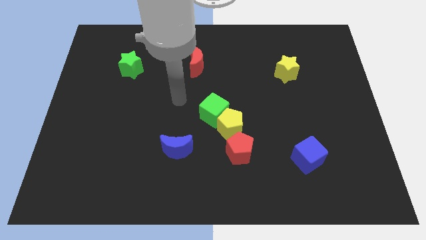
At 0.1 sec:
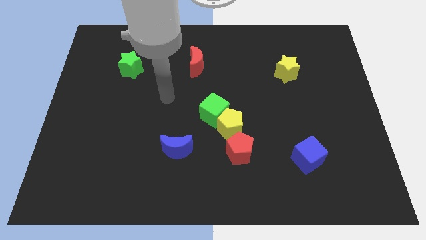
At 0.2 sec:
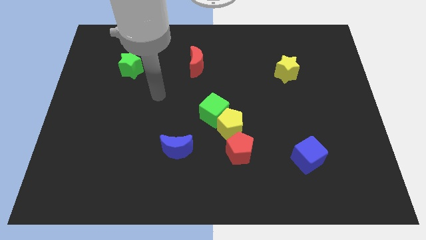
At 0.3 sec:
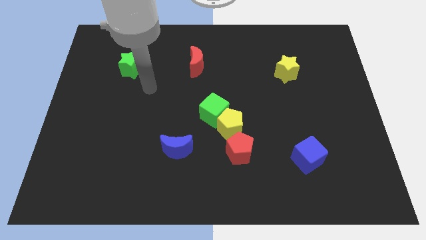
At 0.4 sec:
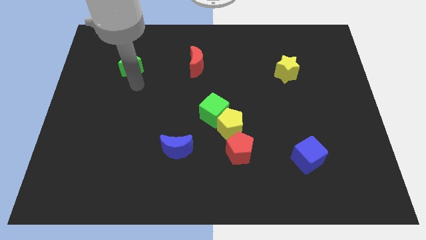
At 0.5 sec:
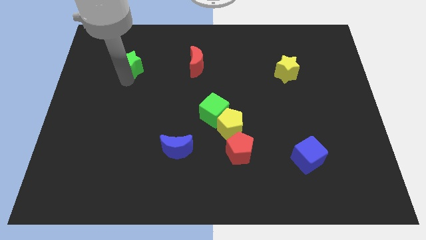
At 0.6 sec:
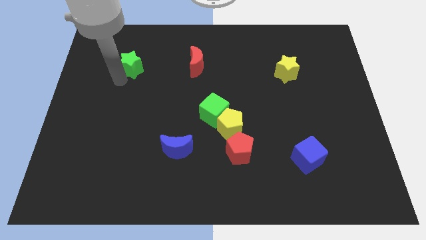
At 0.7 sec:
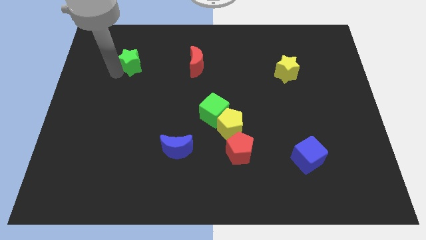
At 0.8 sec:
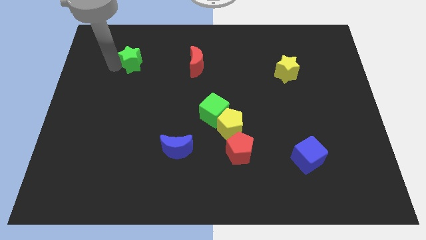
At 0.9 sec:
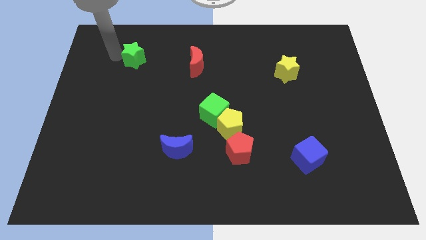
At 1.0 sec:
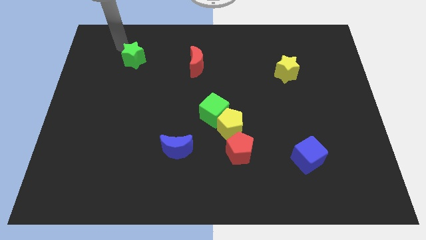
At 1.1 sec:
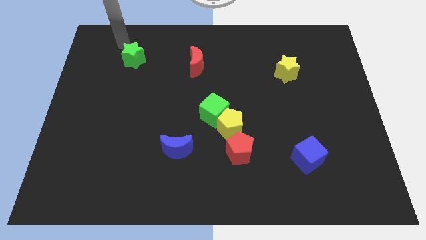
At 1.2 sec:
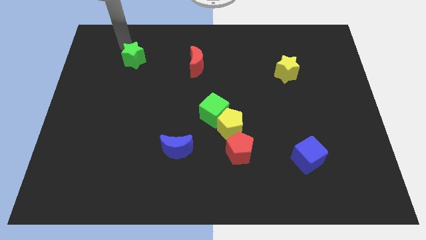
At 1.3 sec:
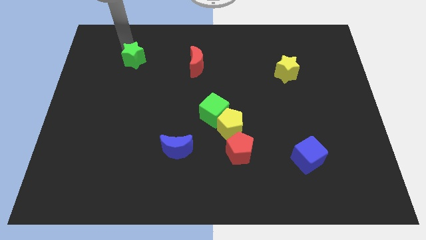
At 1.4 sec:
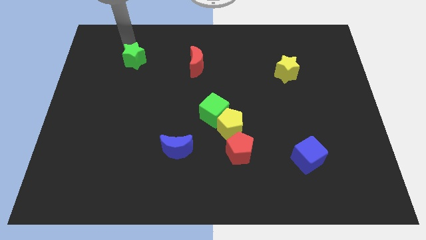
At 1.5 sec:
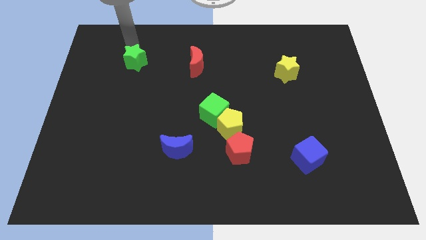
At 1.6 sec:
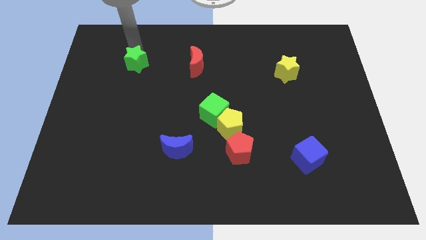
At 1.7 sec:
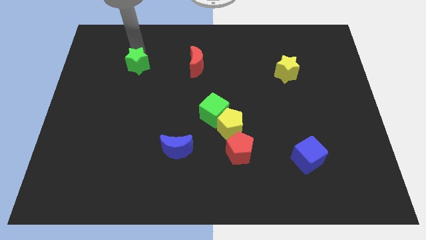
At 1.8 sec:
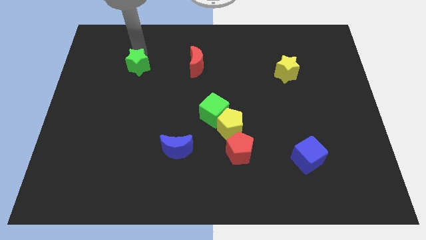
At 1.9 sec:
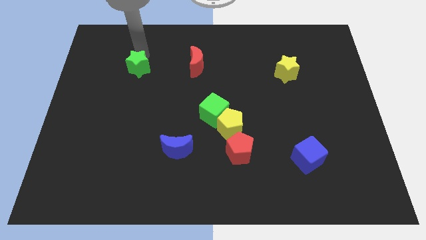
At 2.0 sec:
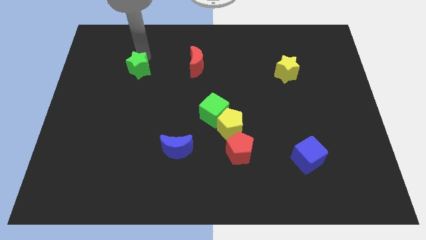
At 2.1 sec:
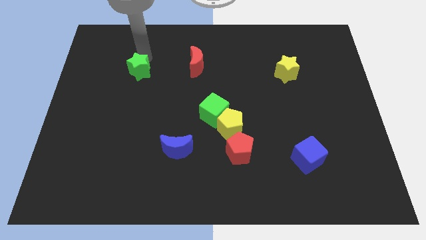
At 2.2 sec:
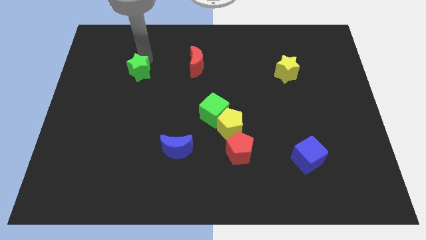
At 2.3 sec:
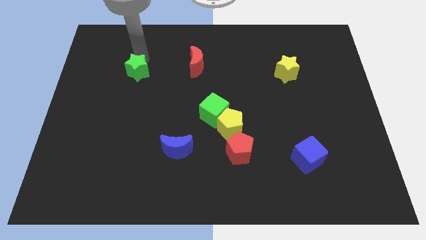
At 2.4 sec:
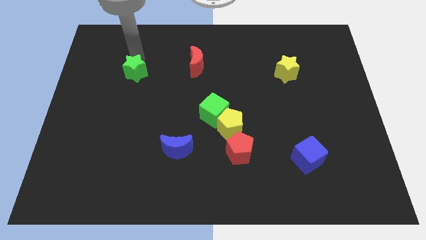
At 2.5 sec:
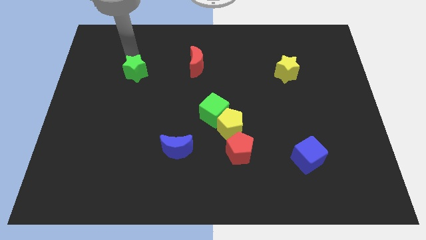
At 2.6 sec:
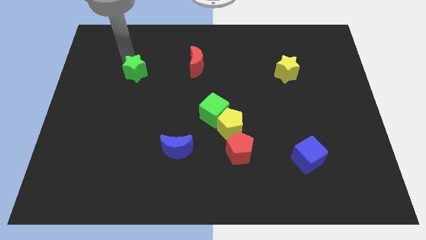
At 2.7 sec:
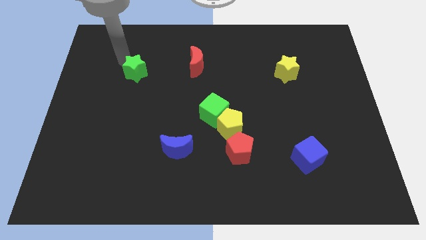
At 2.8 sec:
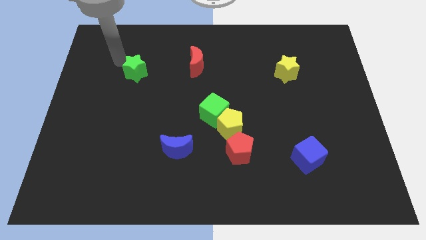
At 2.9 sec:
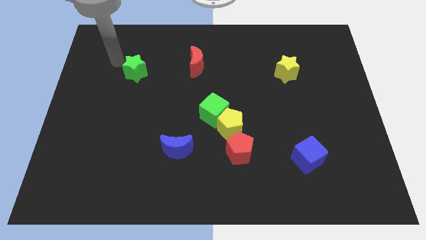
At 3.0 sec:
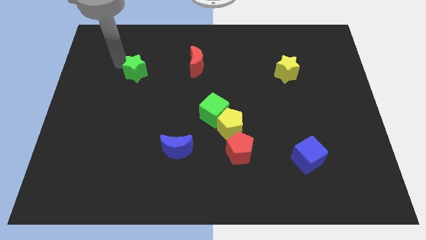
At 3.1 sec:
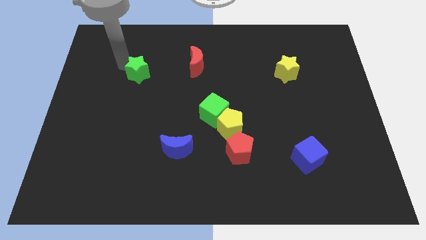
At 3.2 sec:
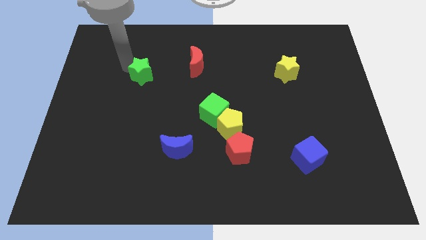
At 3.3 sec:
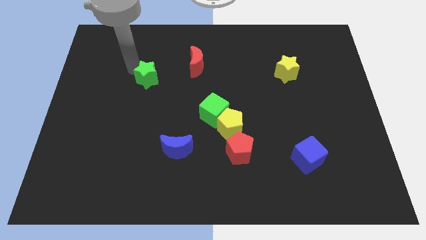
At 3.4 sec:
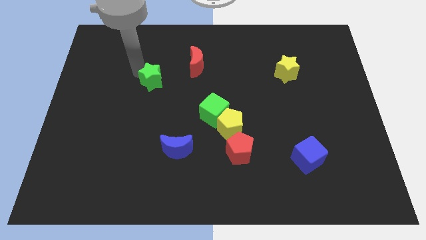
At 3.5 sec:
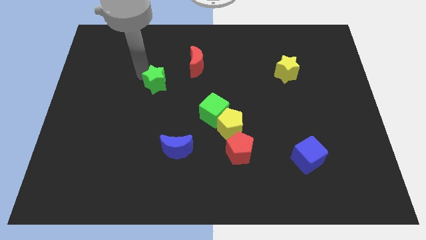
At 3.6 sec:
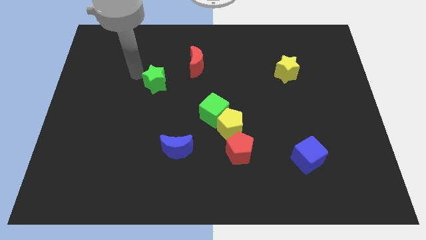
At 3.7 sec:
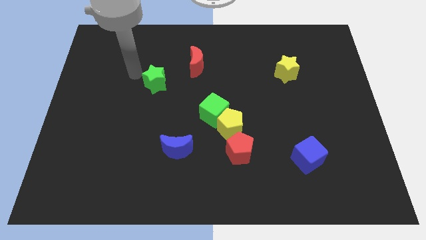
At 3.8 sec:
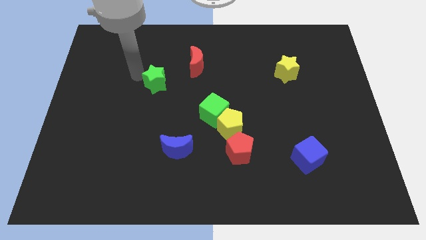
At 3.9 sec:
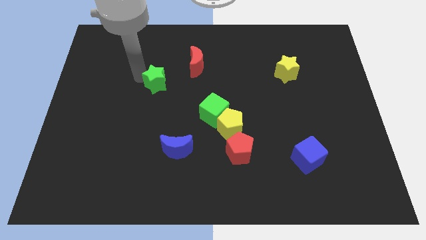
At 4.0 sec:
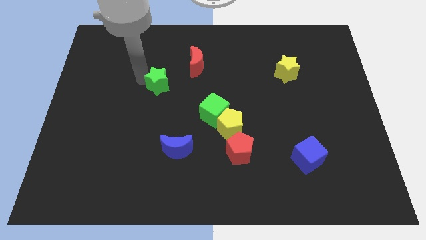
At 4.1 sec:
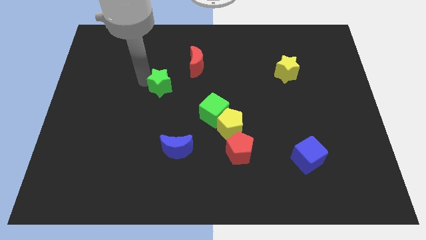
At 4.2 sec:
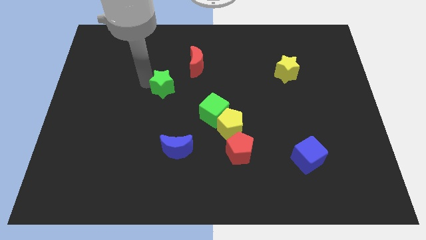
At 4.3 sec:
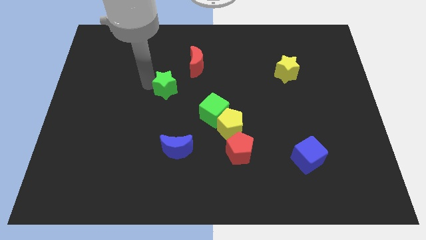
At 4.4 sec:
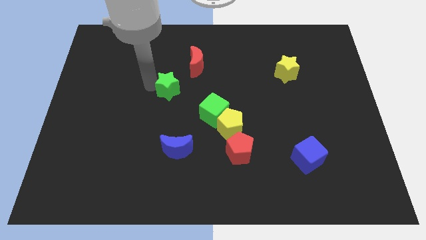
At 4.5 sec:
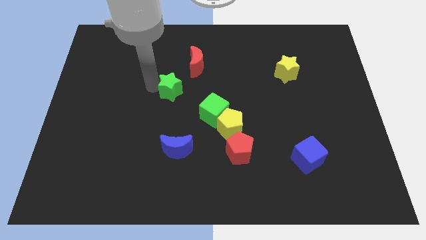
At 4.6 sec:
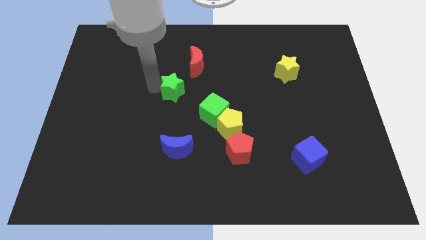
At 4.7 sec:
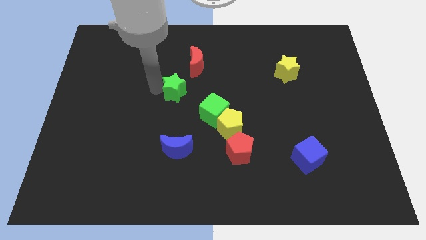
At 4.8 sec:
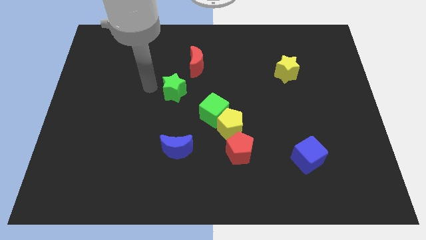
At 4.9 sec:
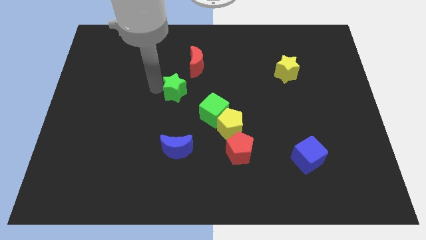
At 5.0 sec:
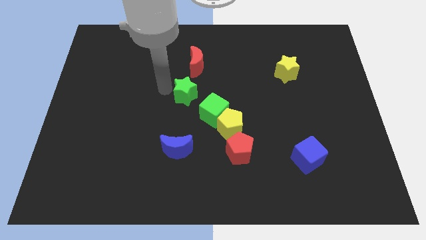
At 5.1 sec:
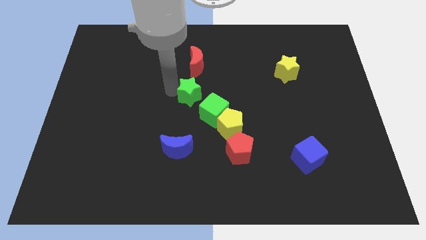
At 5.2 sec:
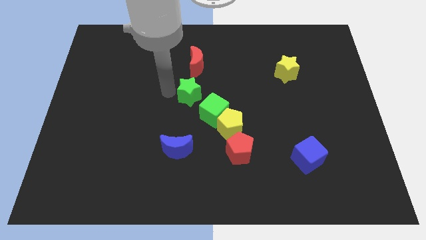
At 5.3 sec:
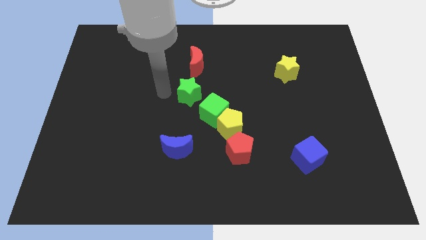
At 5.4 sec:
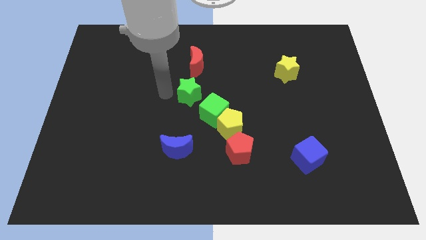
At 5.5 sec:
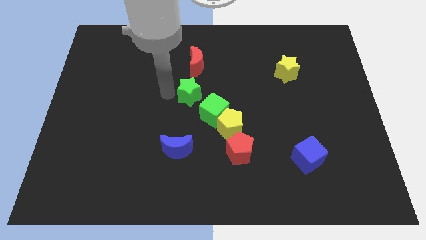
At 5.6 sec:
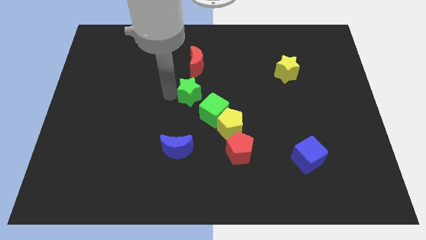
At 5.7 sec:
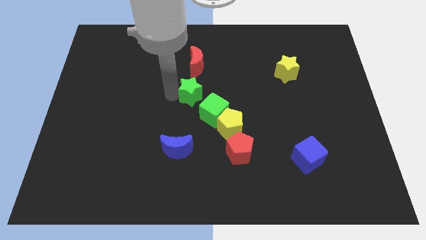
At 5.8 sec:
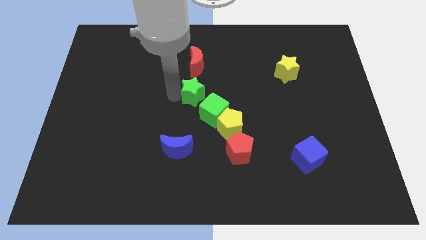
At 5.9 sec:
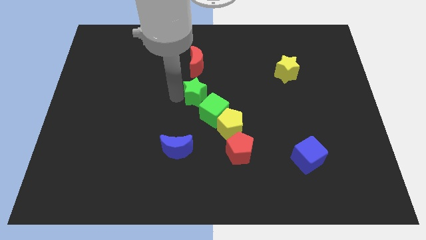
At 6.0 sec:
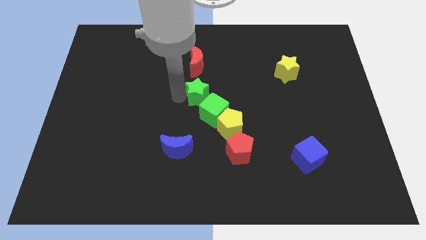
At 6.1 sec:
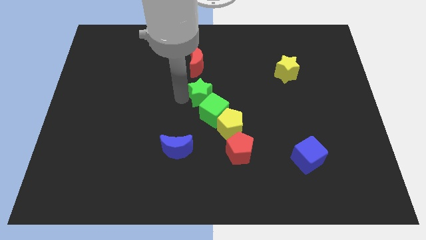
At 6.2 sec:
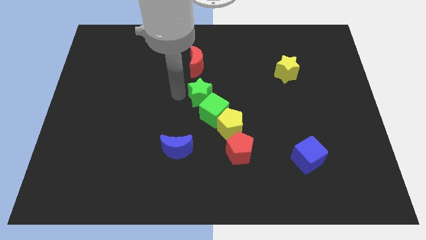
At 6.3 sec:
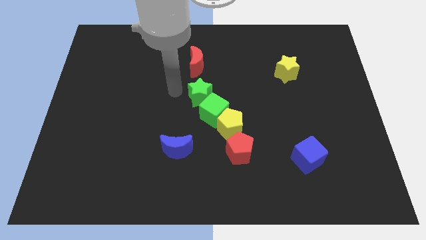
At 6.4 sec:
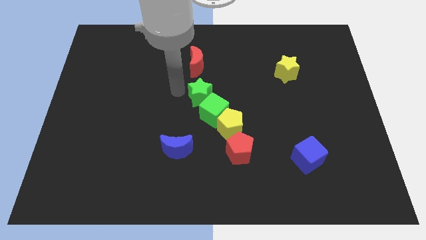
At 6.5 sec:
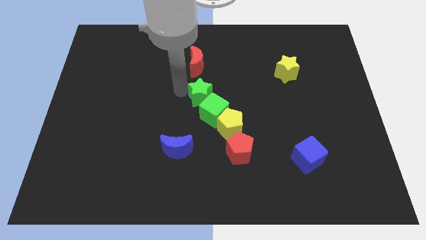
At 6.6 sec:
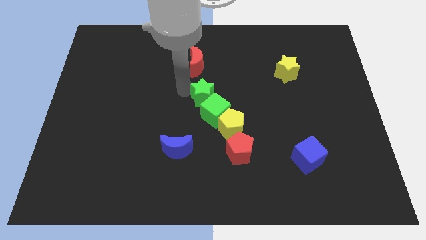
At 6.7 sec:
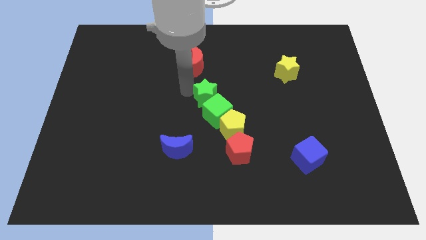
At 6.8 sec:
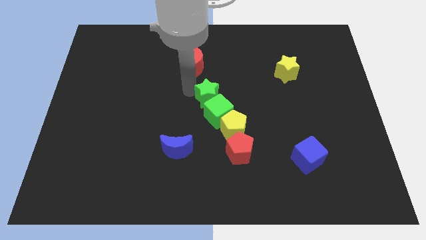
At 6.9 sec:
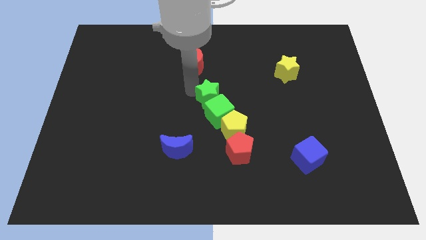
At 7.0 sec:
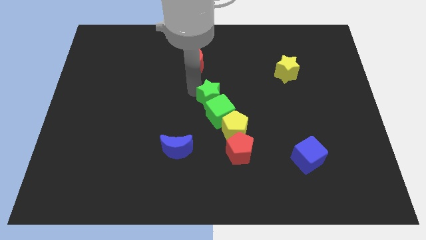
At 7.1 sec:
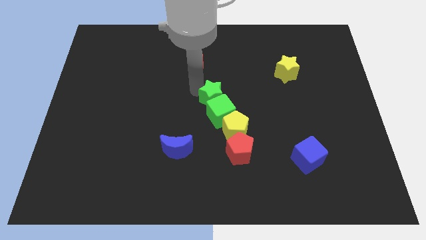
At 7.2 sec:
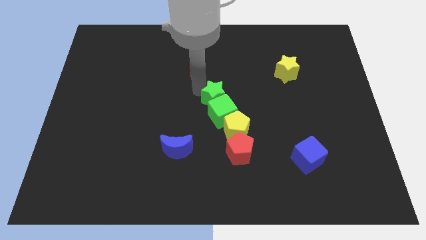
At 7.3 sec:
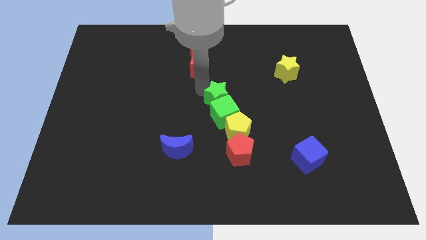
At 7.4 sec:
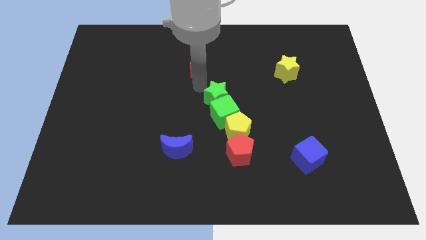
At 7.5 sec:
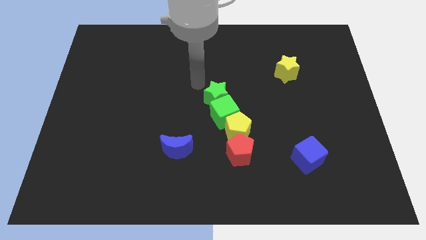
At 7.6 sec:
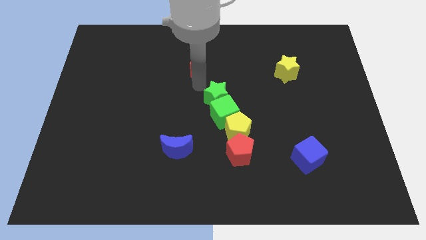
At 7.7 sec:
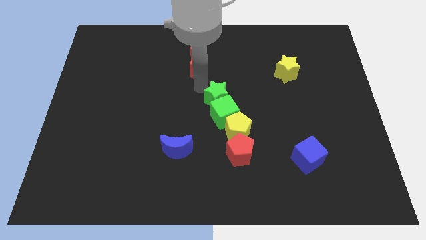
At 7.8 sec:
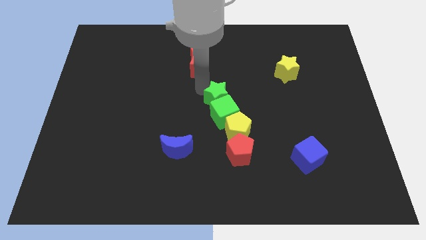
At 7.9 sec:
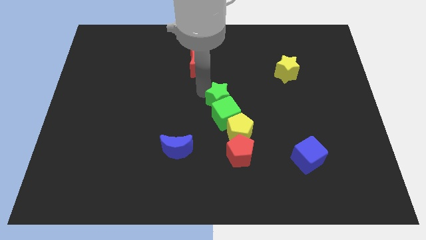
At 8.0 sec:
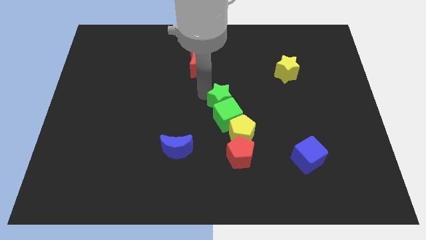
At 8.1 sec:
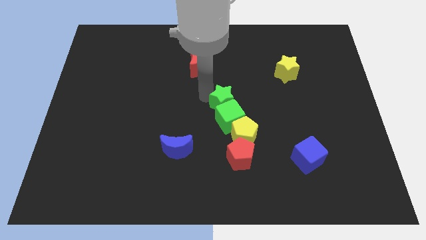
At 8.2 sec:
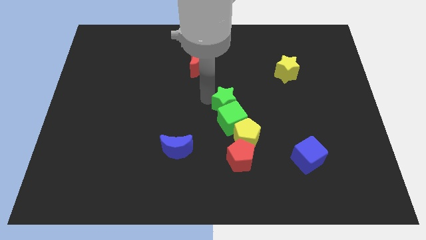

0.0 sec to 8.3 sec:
slide the green star above the red pentagon
